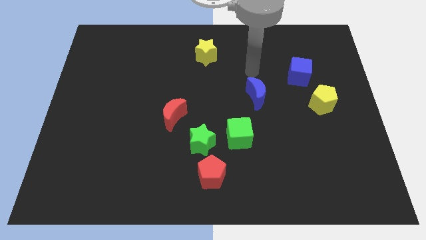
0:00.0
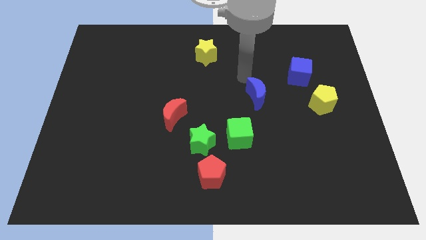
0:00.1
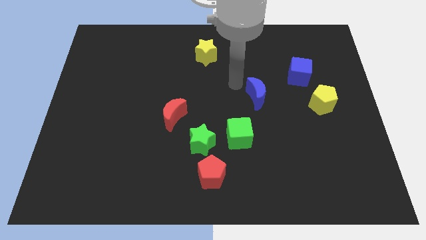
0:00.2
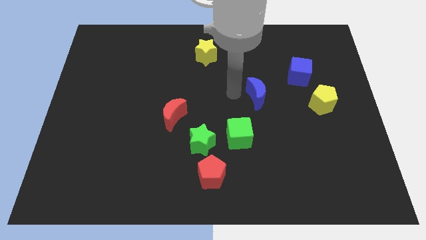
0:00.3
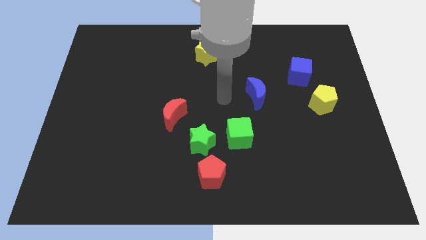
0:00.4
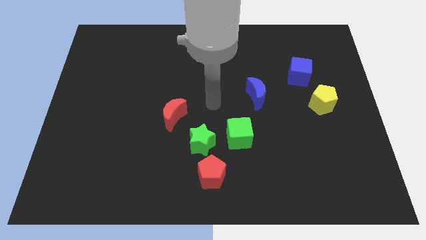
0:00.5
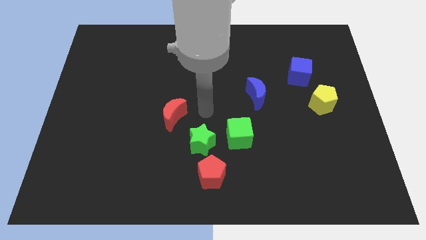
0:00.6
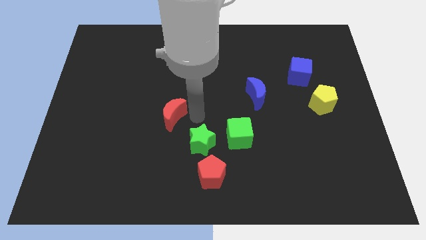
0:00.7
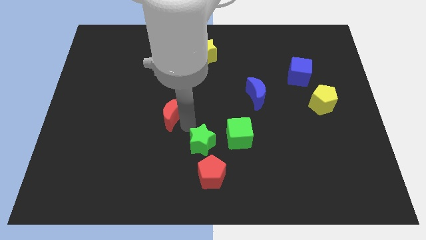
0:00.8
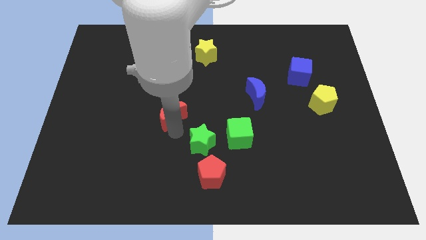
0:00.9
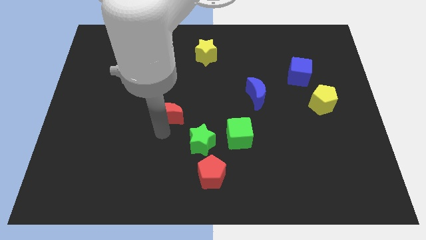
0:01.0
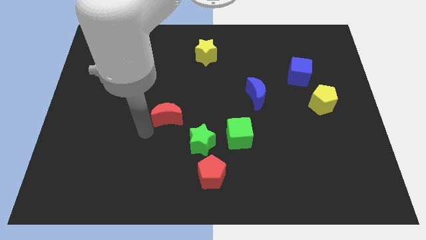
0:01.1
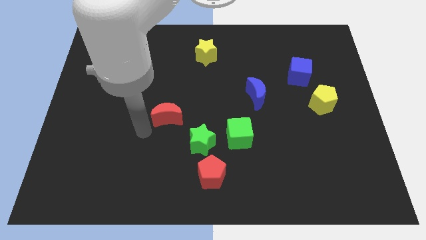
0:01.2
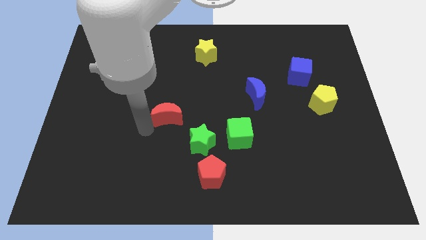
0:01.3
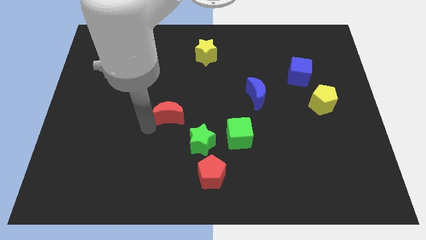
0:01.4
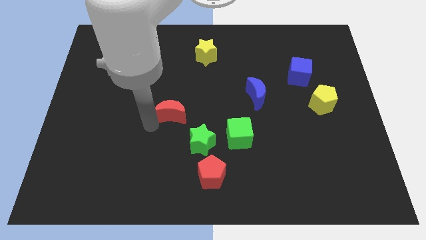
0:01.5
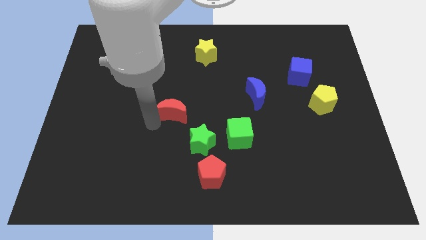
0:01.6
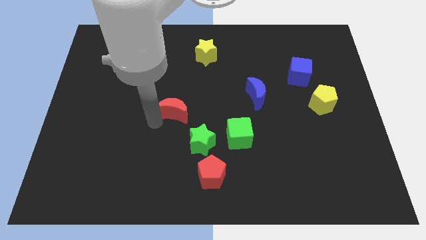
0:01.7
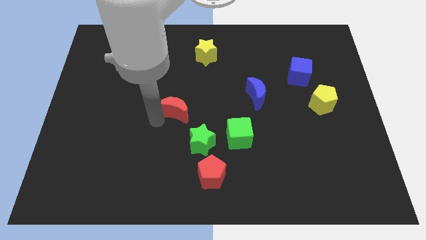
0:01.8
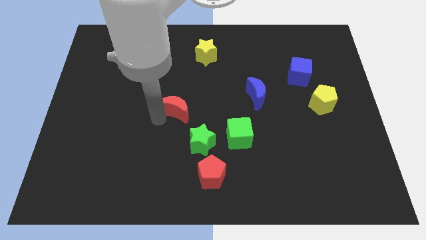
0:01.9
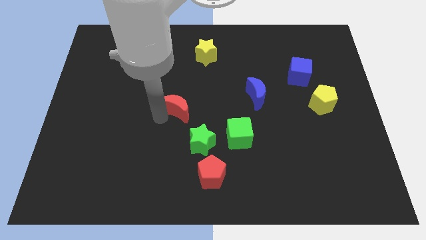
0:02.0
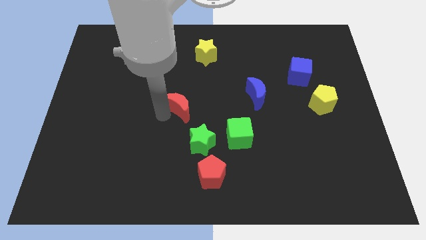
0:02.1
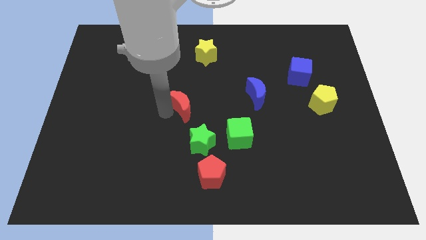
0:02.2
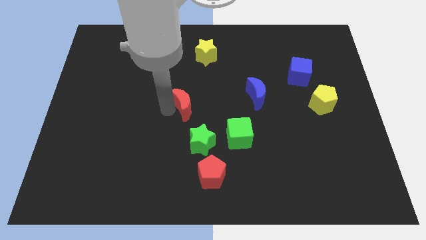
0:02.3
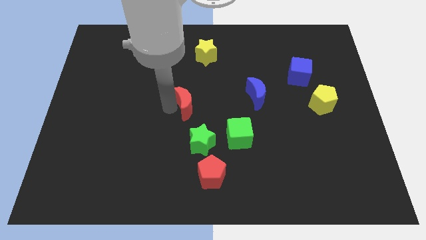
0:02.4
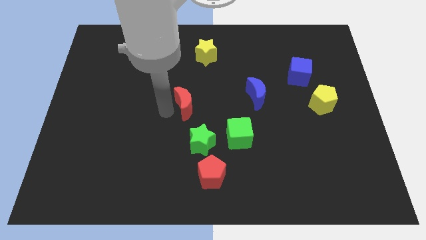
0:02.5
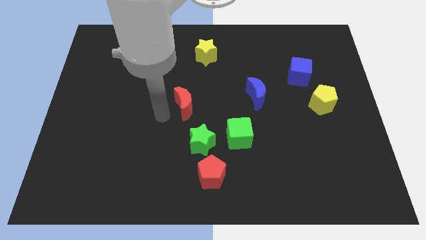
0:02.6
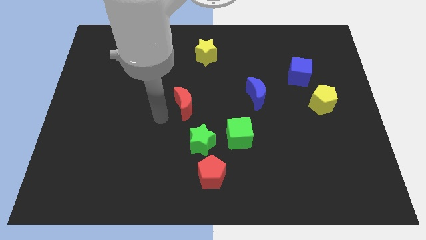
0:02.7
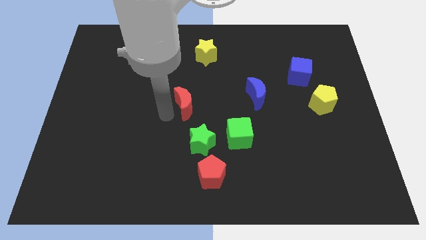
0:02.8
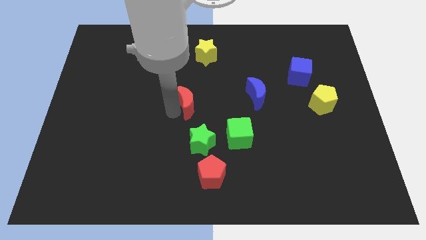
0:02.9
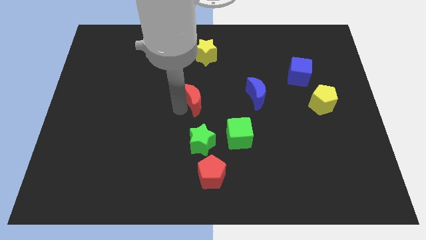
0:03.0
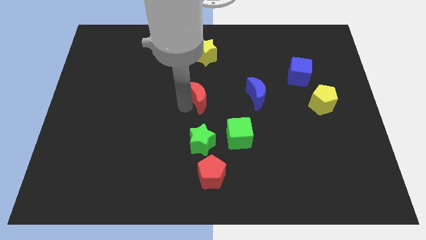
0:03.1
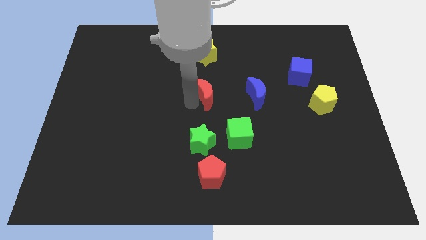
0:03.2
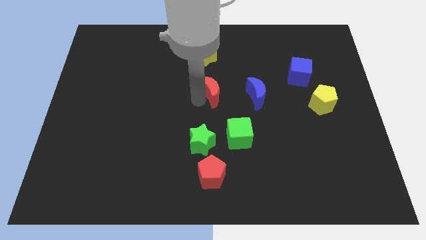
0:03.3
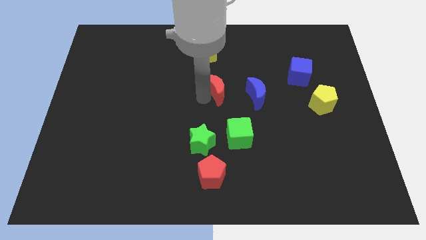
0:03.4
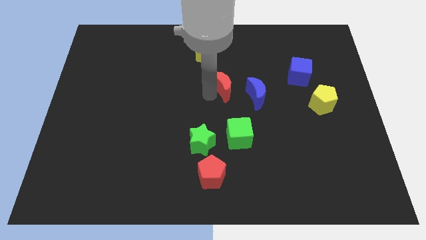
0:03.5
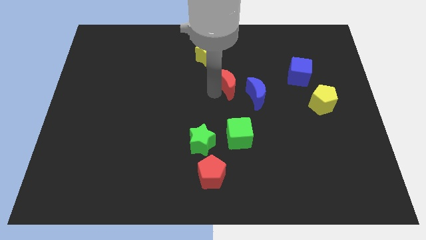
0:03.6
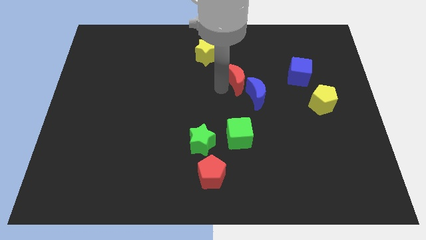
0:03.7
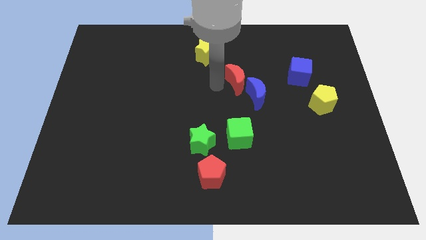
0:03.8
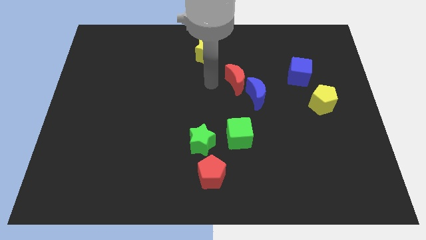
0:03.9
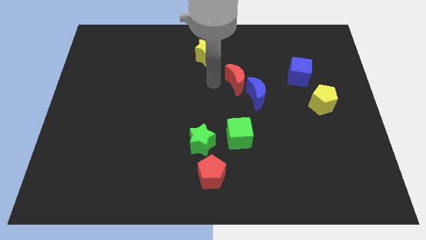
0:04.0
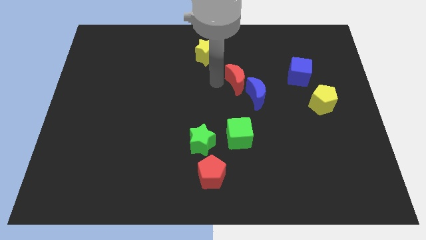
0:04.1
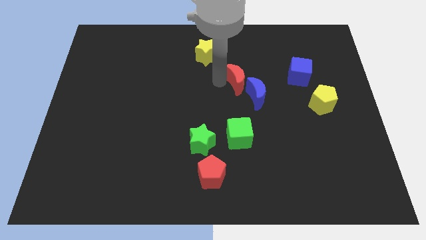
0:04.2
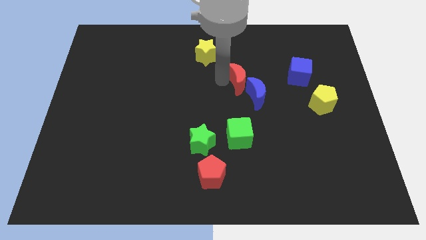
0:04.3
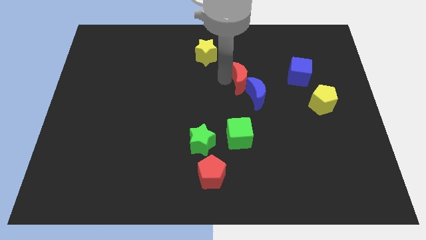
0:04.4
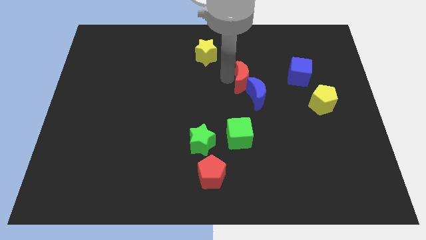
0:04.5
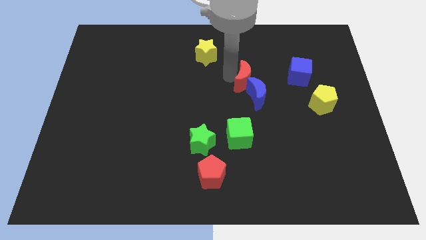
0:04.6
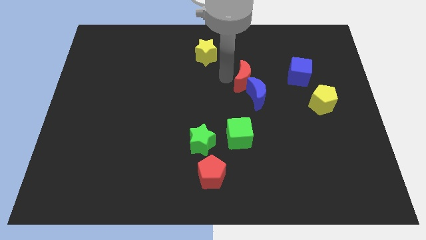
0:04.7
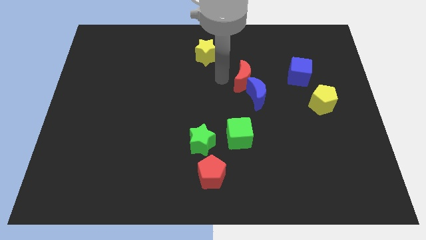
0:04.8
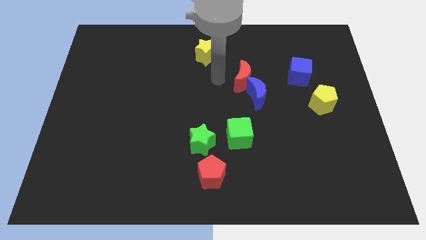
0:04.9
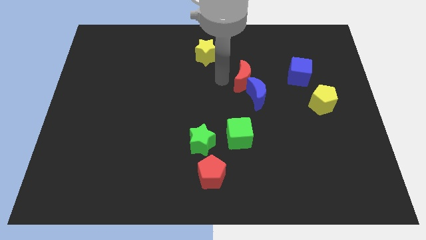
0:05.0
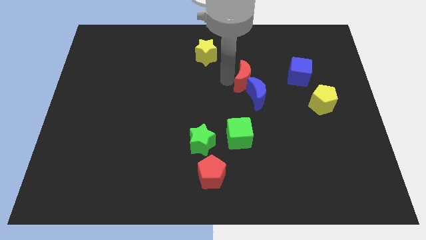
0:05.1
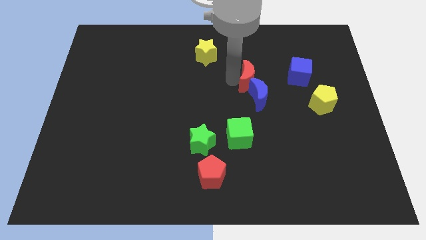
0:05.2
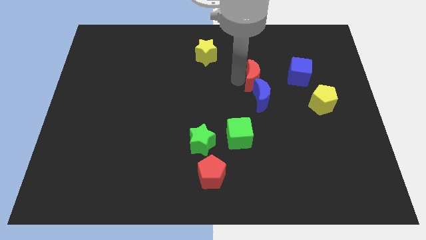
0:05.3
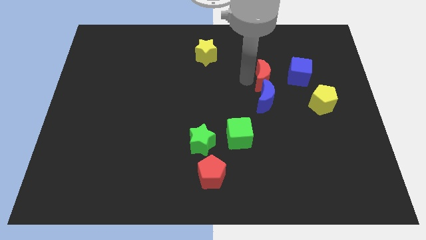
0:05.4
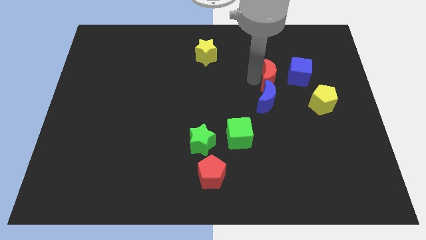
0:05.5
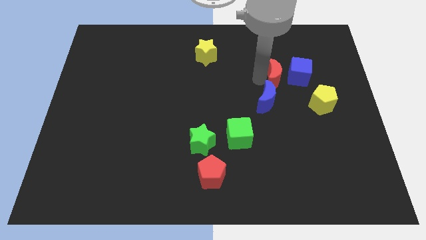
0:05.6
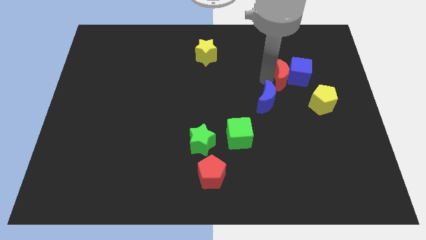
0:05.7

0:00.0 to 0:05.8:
put the red moon to the blue cube

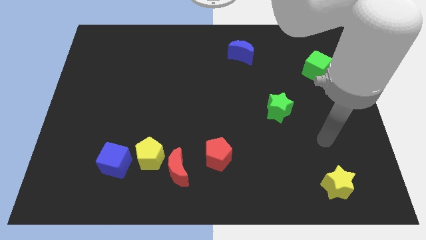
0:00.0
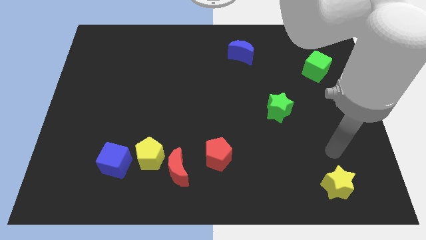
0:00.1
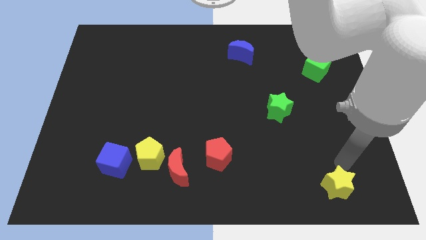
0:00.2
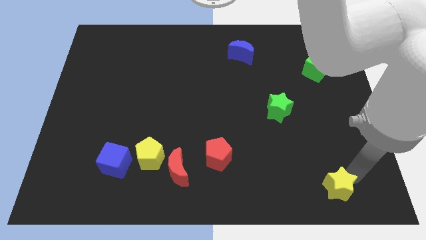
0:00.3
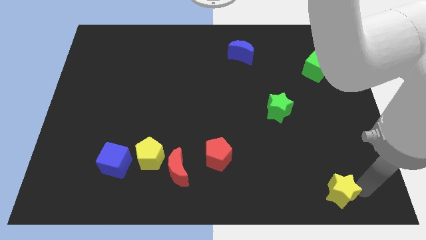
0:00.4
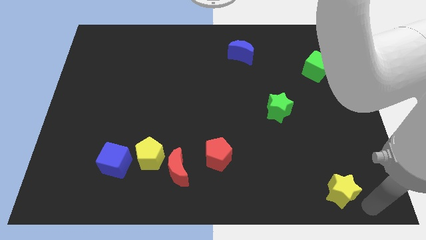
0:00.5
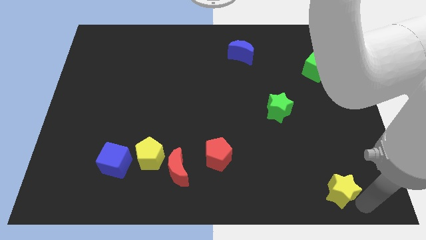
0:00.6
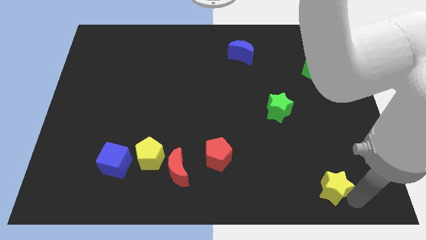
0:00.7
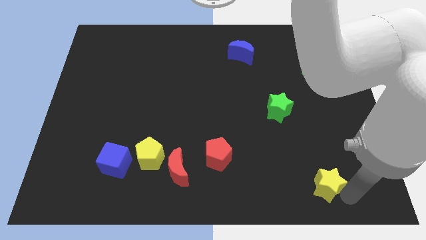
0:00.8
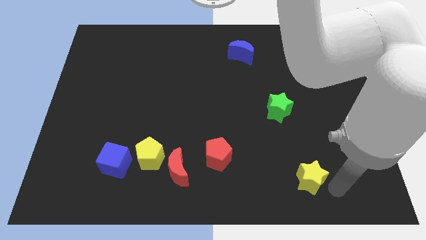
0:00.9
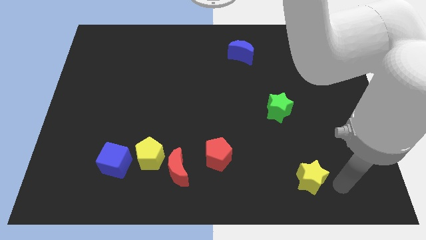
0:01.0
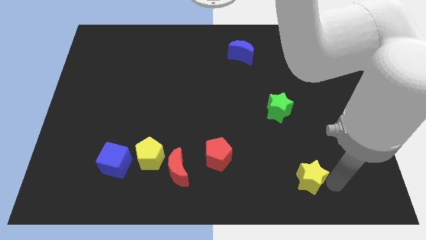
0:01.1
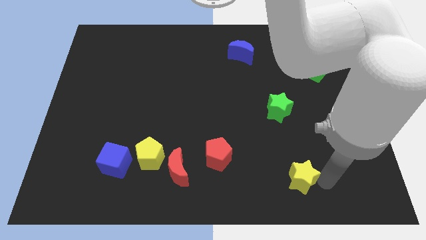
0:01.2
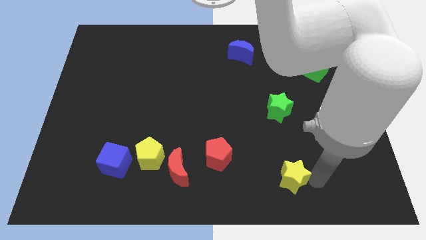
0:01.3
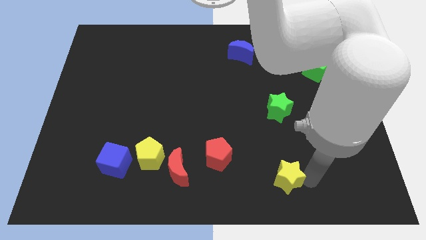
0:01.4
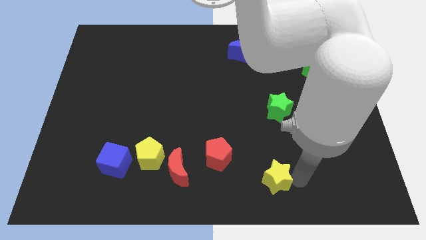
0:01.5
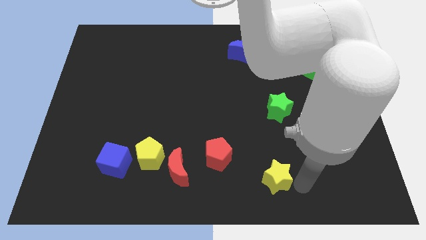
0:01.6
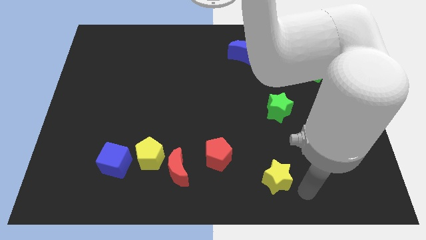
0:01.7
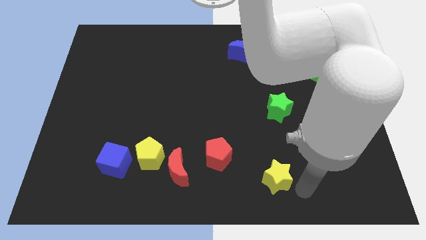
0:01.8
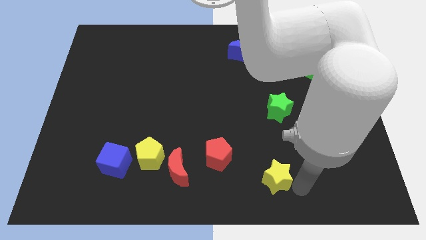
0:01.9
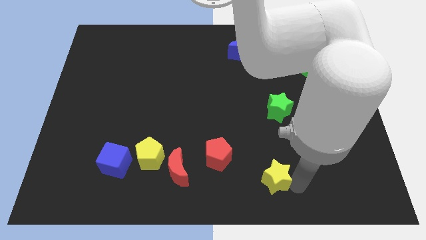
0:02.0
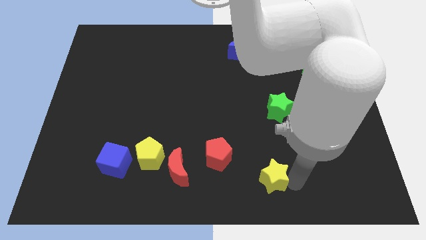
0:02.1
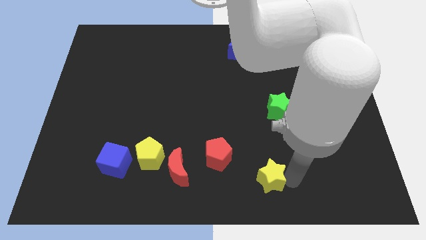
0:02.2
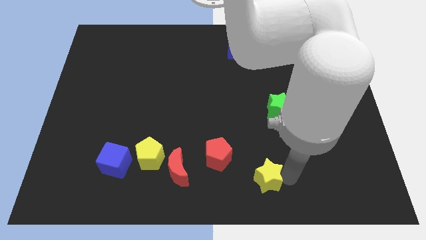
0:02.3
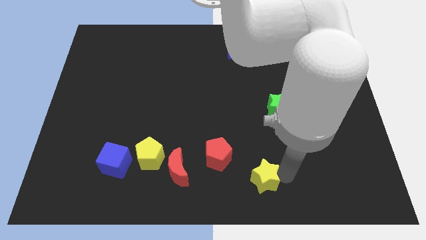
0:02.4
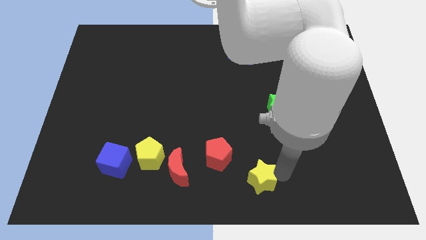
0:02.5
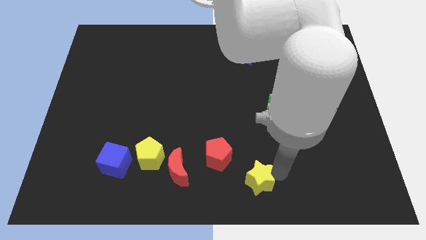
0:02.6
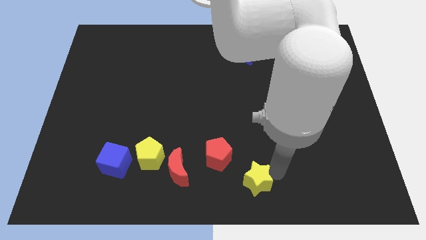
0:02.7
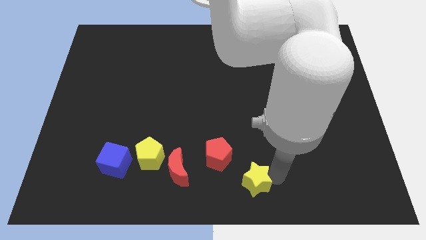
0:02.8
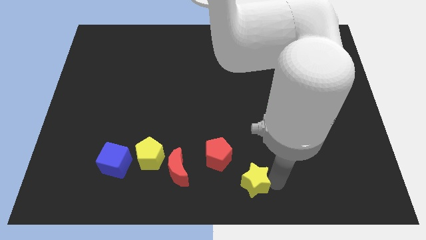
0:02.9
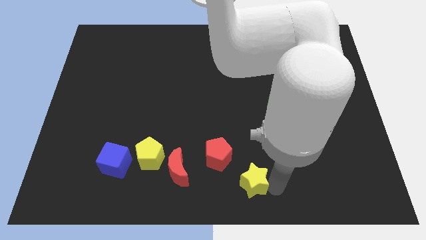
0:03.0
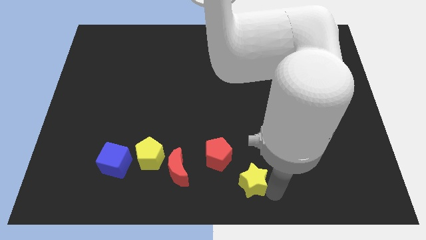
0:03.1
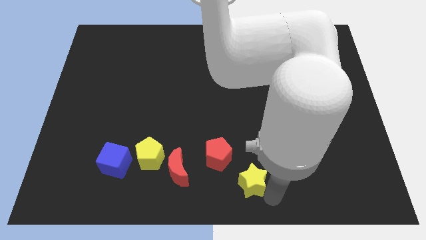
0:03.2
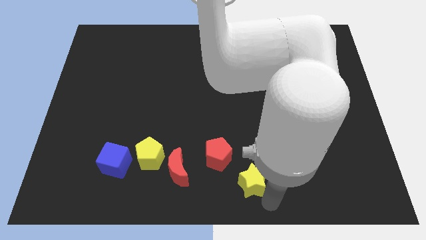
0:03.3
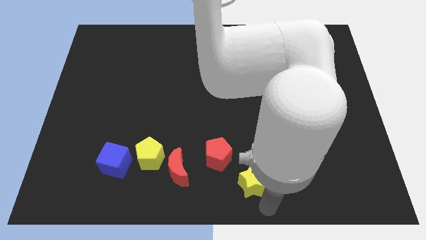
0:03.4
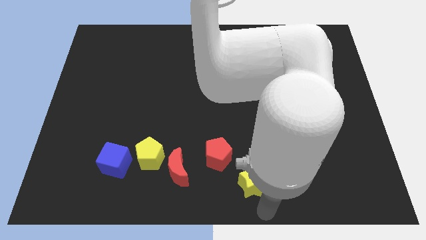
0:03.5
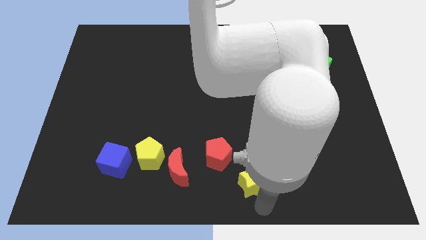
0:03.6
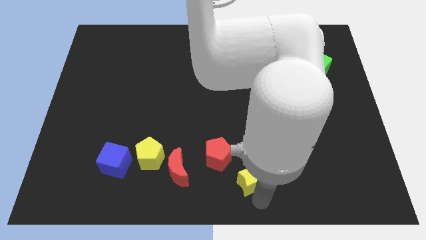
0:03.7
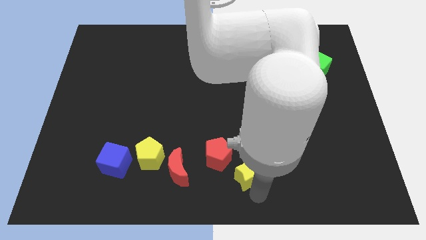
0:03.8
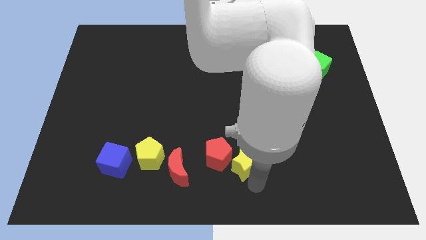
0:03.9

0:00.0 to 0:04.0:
put the yellow star to the red pentagon
